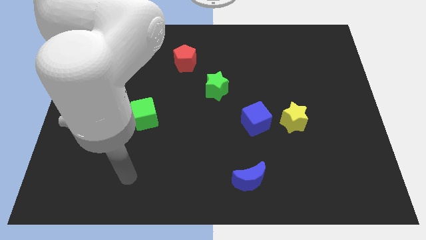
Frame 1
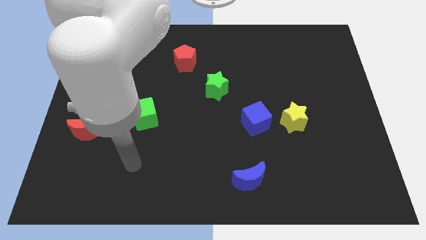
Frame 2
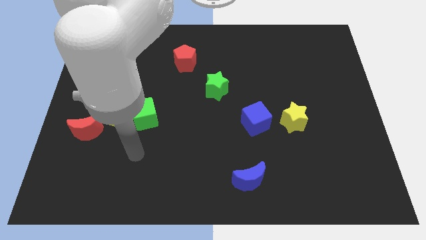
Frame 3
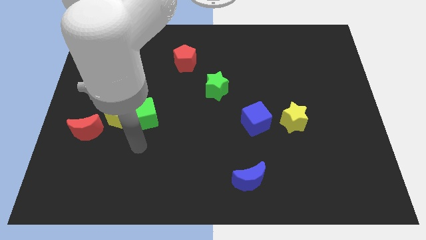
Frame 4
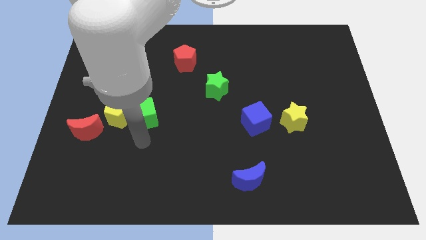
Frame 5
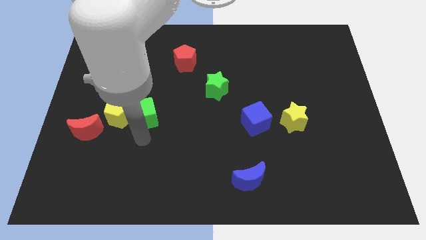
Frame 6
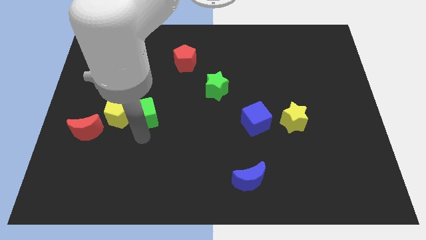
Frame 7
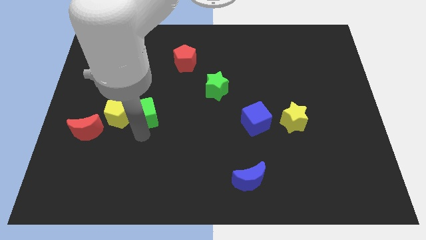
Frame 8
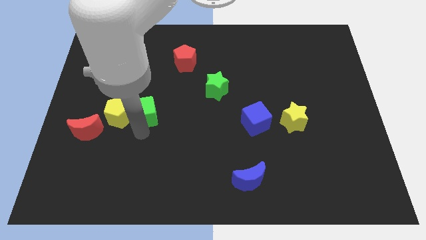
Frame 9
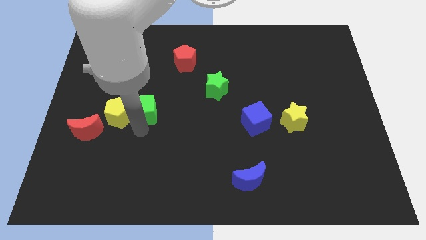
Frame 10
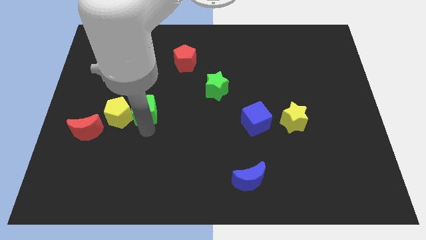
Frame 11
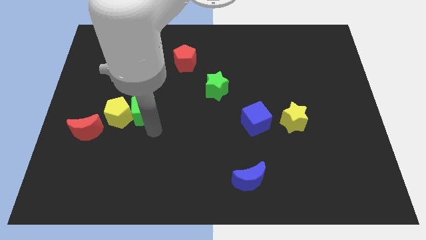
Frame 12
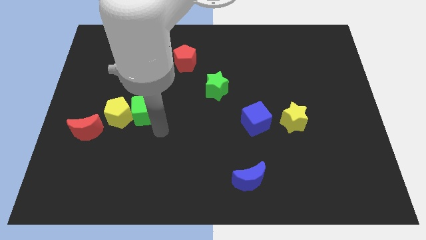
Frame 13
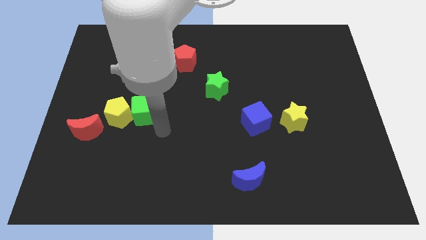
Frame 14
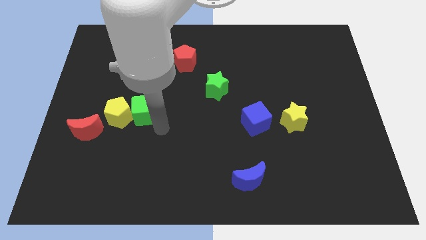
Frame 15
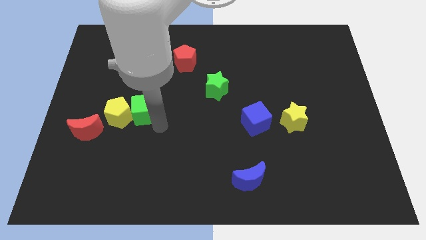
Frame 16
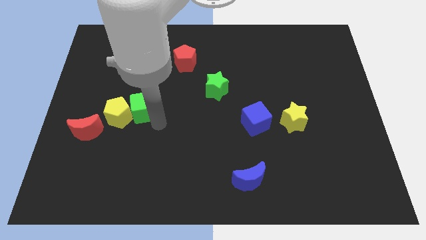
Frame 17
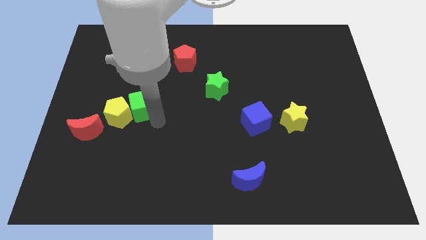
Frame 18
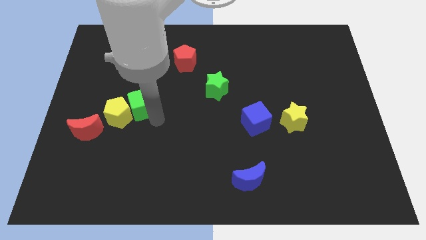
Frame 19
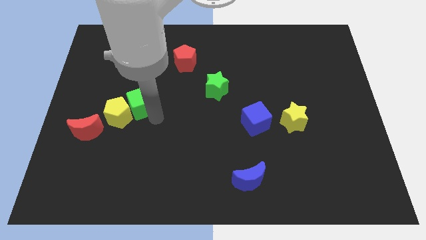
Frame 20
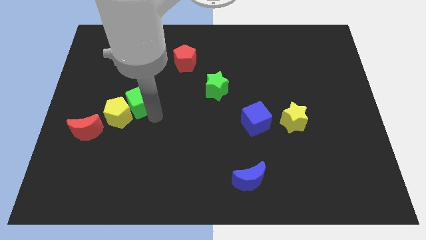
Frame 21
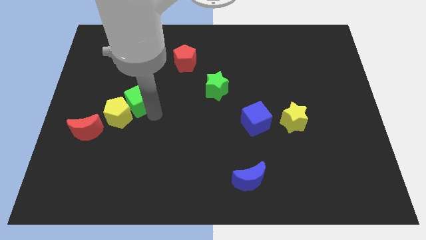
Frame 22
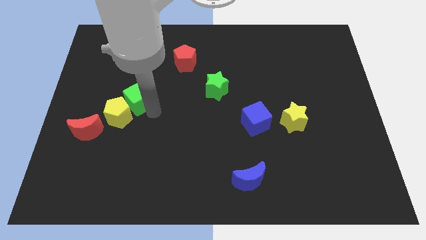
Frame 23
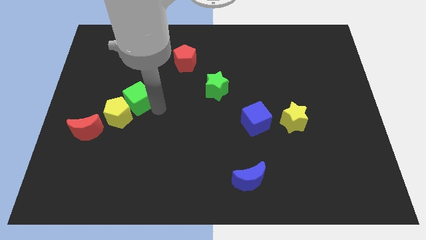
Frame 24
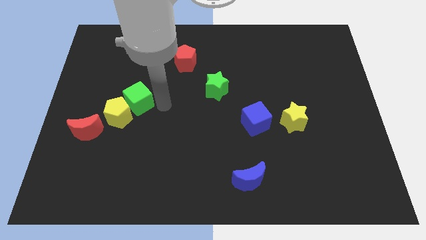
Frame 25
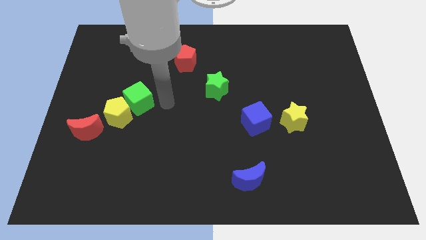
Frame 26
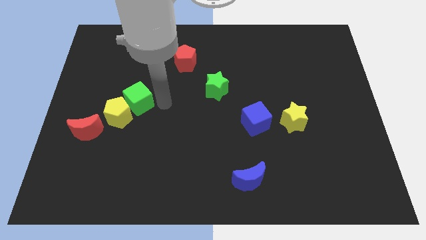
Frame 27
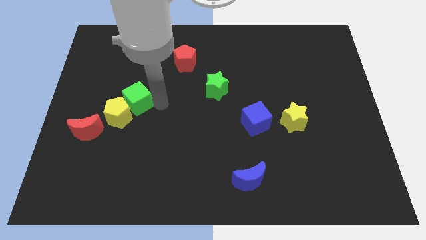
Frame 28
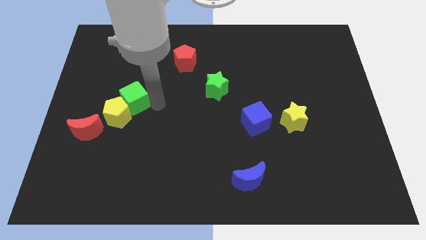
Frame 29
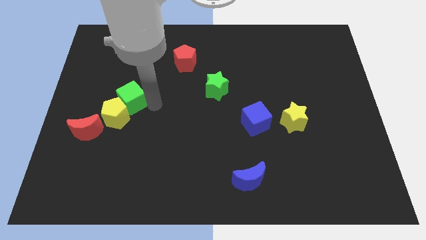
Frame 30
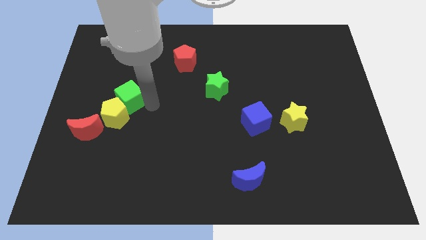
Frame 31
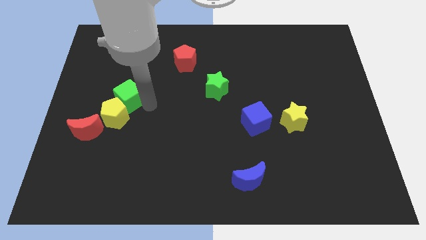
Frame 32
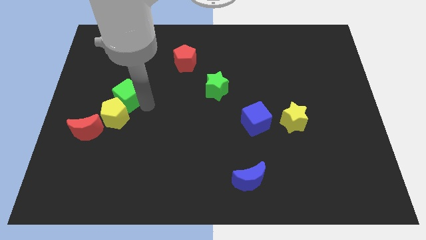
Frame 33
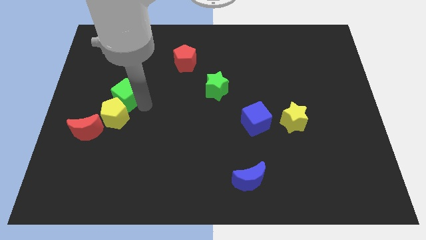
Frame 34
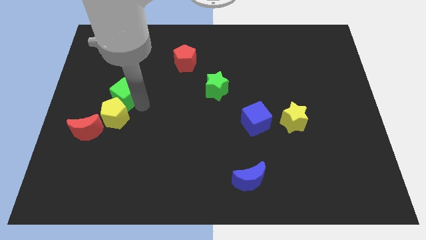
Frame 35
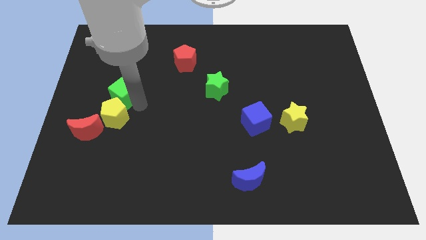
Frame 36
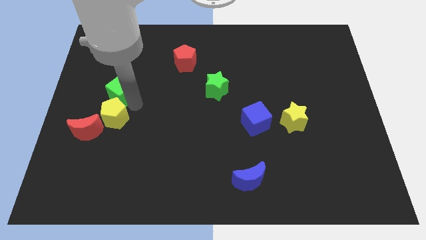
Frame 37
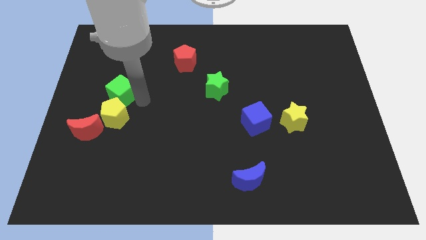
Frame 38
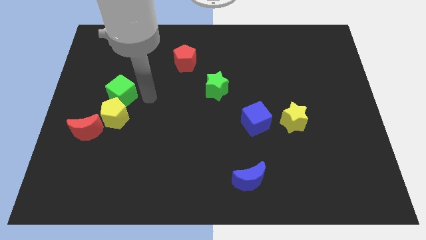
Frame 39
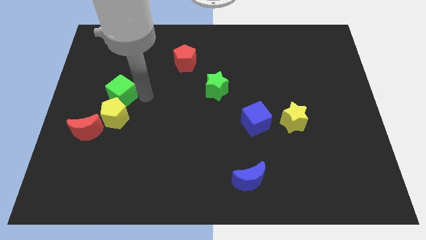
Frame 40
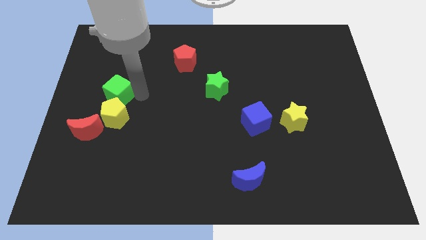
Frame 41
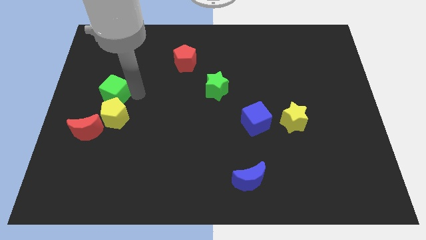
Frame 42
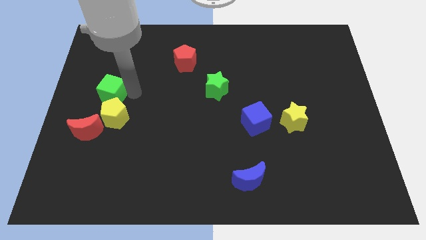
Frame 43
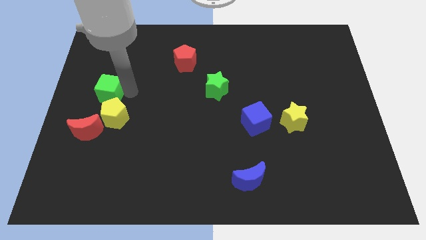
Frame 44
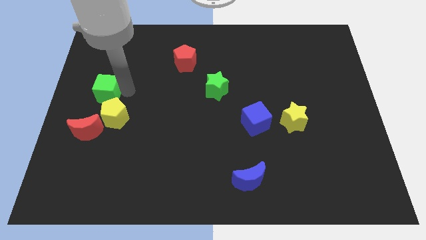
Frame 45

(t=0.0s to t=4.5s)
move the green cube to the left side of the board

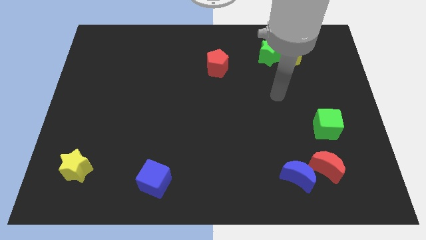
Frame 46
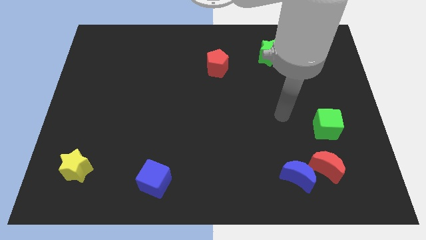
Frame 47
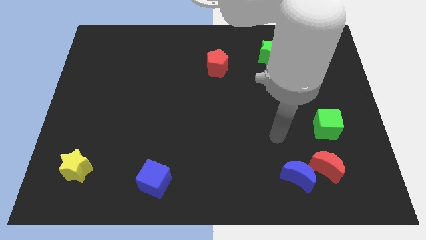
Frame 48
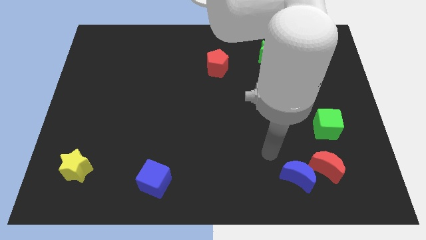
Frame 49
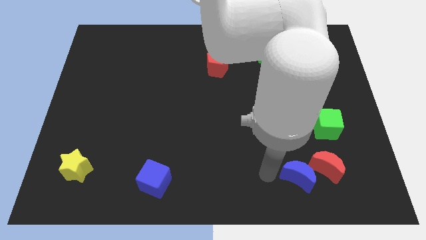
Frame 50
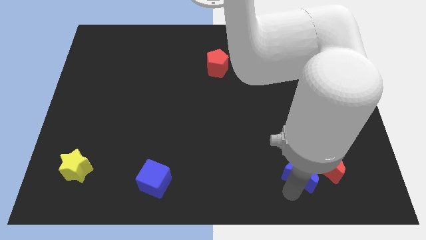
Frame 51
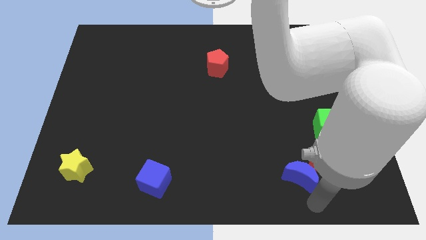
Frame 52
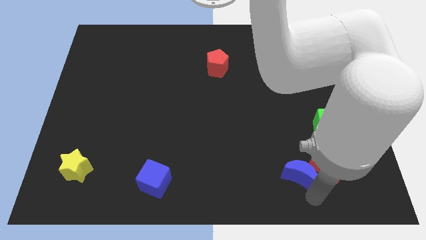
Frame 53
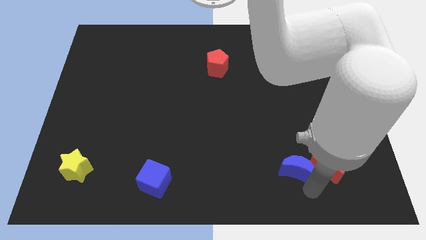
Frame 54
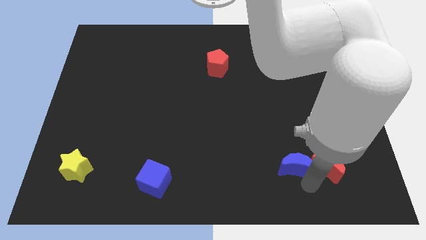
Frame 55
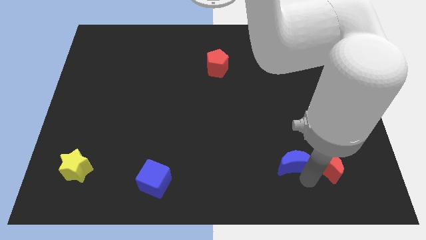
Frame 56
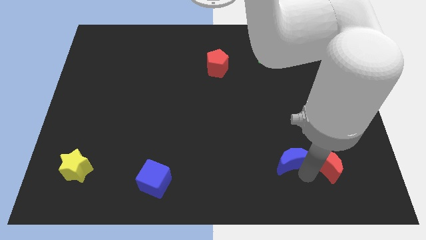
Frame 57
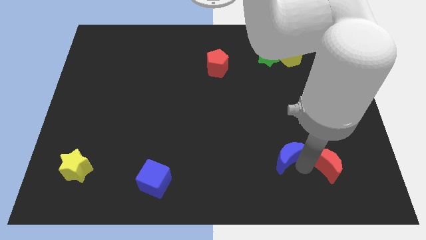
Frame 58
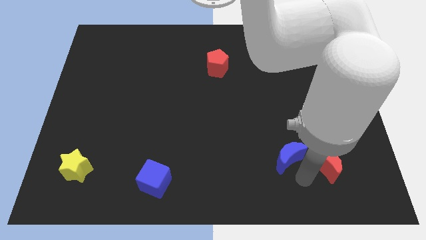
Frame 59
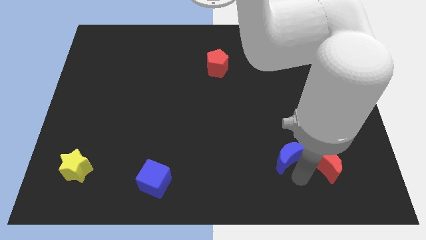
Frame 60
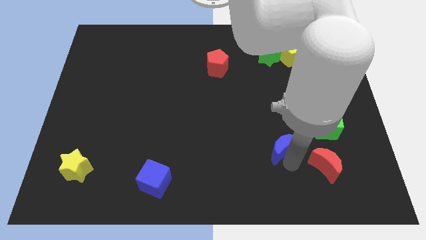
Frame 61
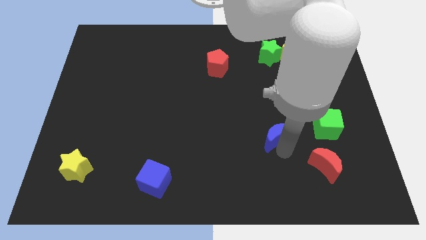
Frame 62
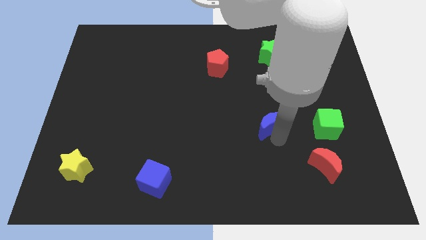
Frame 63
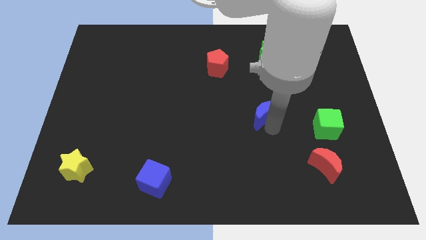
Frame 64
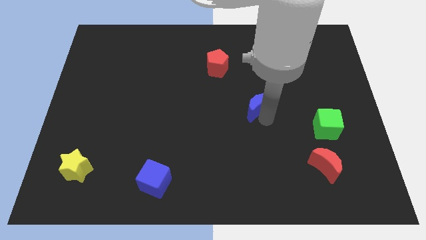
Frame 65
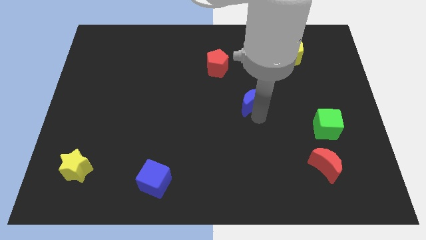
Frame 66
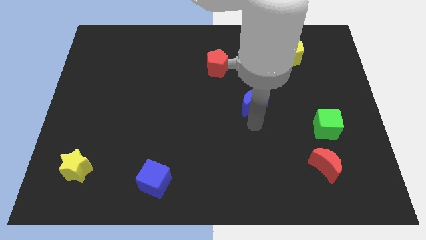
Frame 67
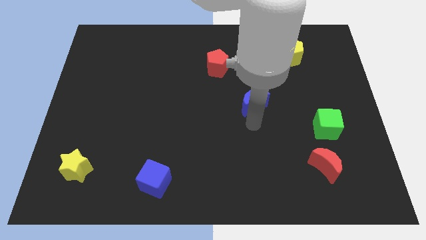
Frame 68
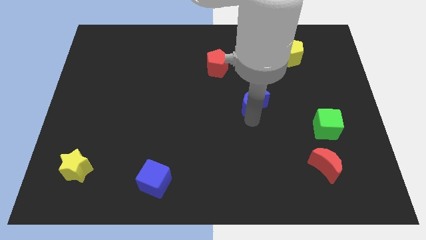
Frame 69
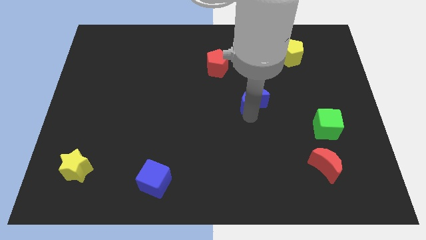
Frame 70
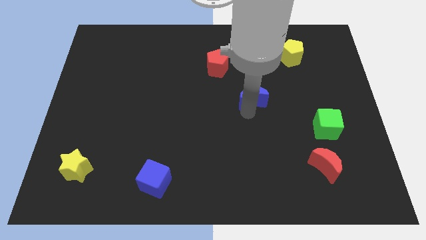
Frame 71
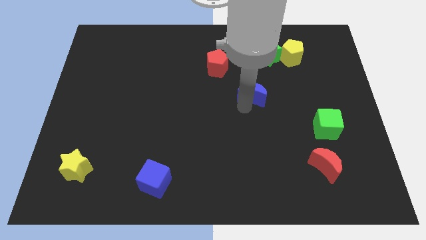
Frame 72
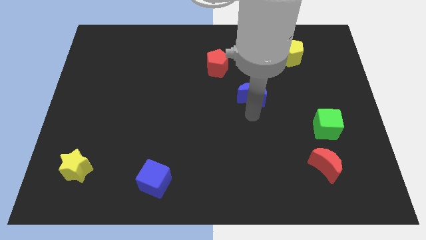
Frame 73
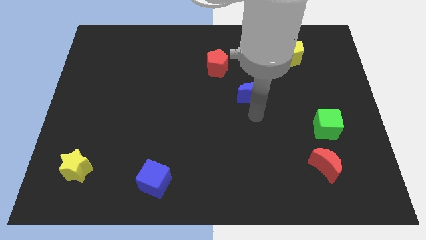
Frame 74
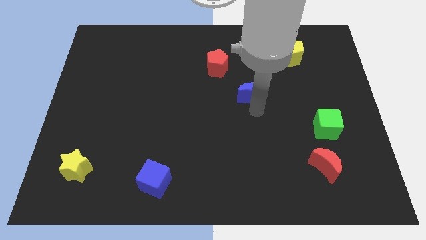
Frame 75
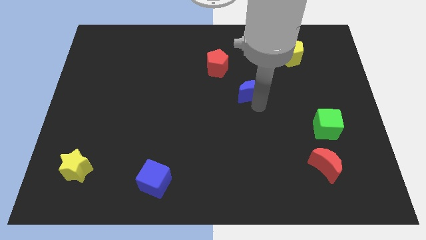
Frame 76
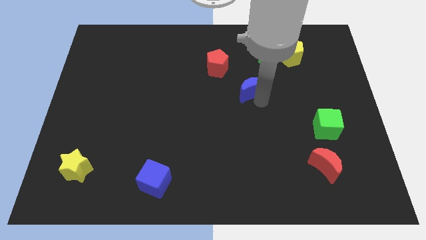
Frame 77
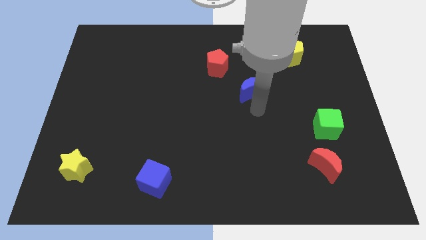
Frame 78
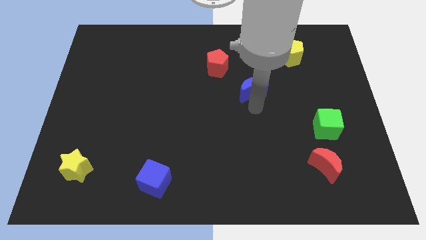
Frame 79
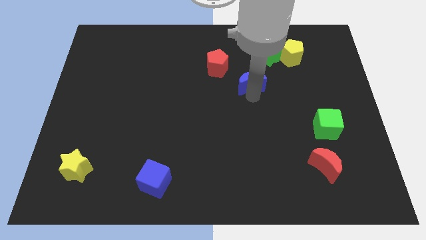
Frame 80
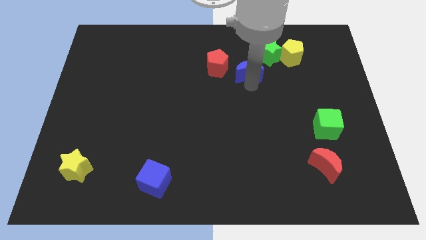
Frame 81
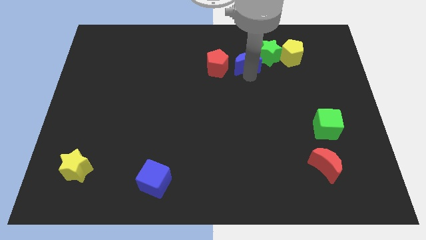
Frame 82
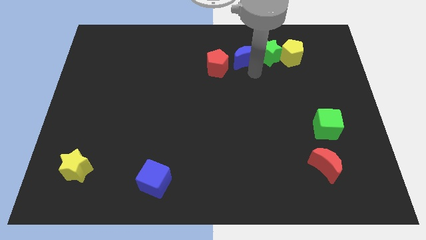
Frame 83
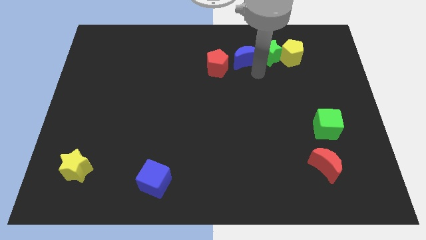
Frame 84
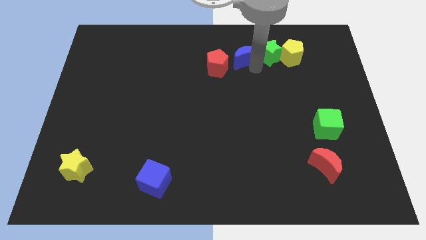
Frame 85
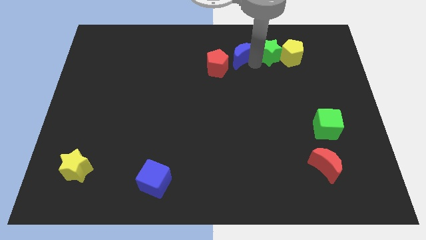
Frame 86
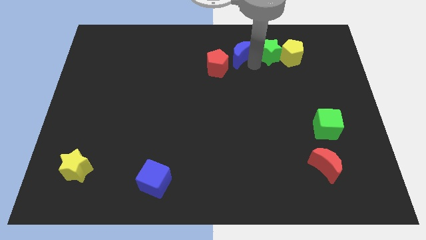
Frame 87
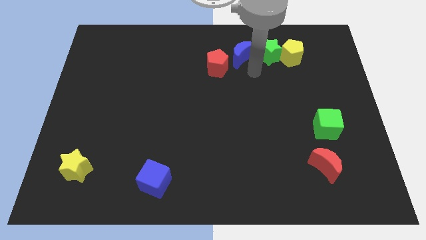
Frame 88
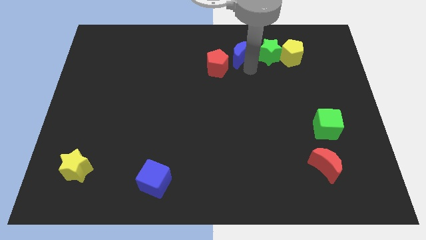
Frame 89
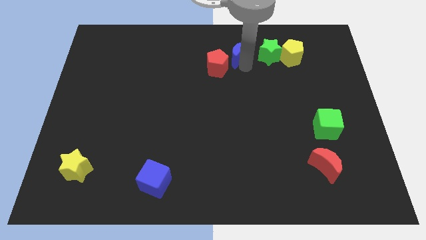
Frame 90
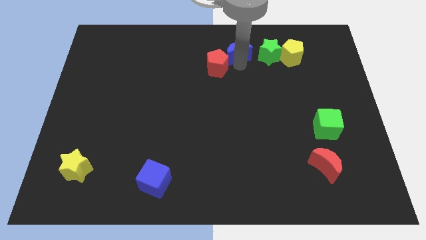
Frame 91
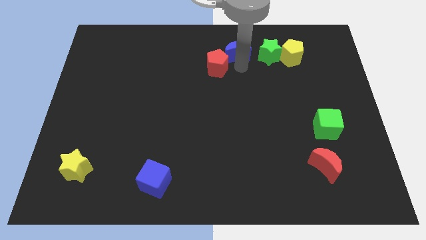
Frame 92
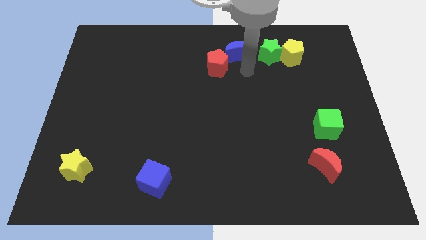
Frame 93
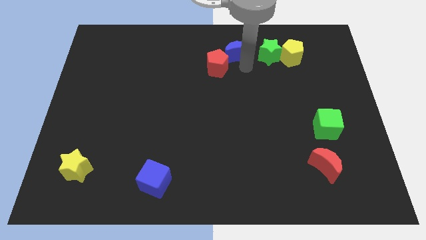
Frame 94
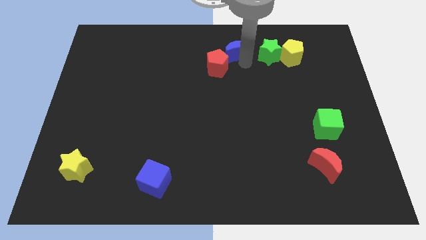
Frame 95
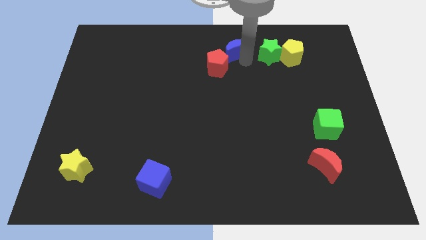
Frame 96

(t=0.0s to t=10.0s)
slide the blue moon to the top
